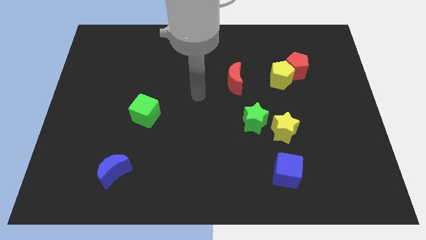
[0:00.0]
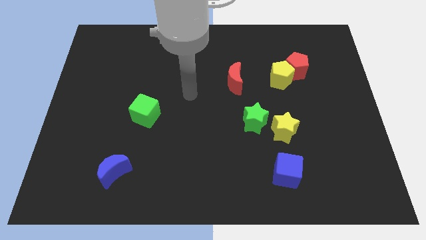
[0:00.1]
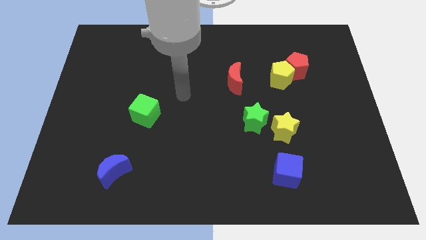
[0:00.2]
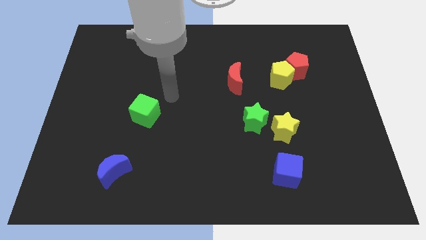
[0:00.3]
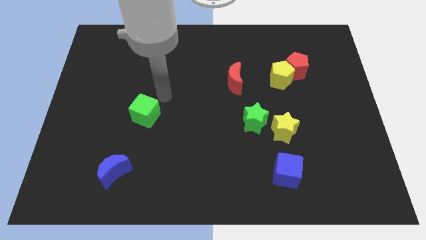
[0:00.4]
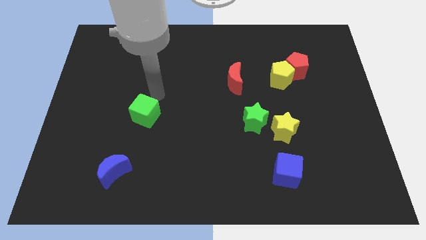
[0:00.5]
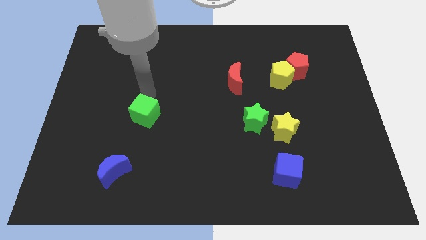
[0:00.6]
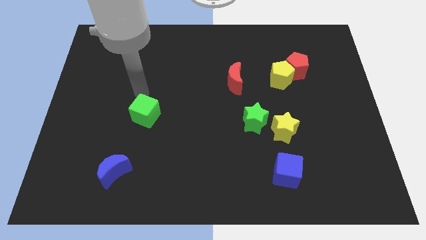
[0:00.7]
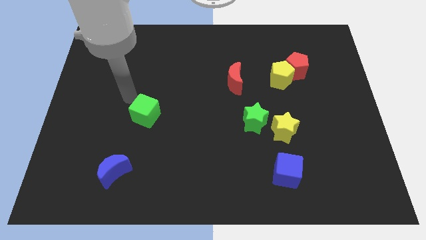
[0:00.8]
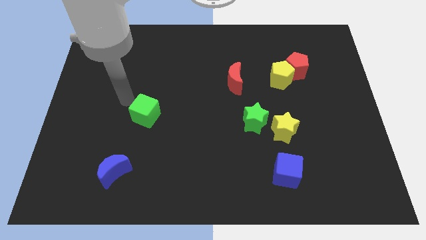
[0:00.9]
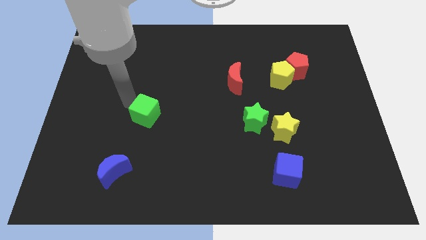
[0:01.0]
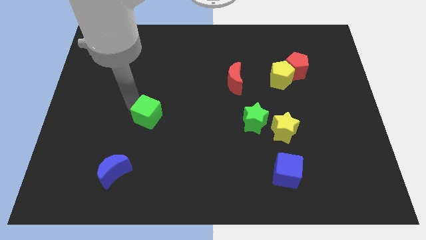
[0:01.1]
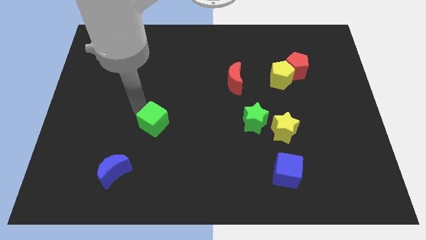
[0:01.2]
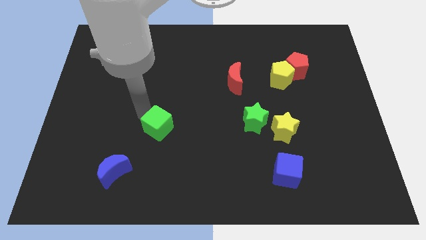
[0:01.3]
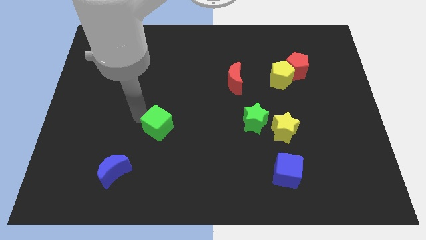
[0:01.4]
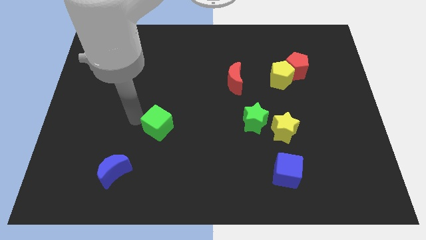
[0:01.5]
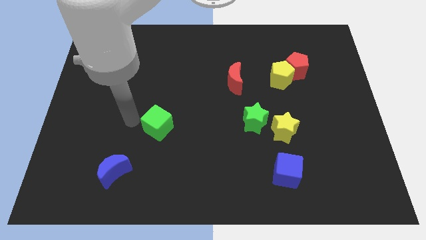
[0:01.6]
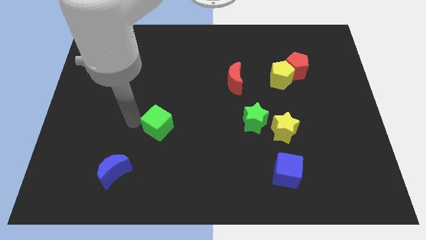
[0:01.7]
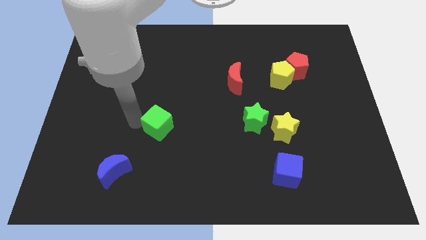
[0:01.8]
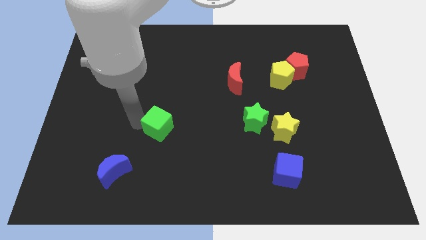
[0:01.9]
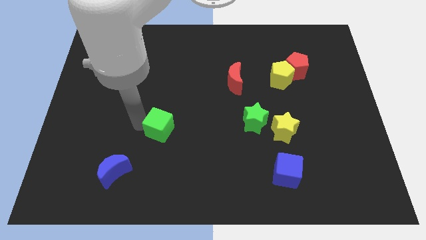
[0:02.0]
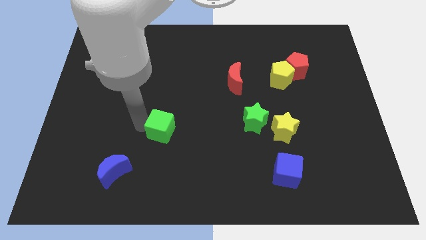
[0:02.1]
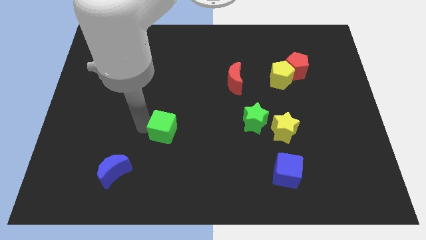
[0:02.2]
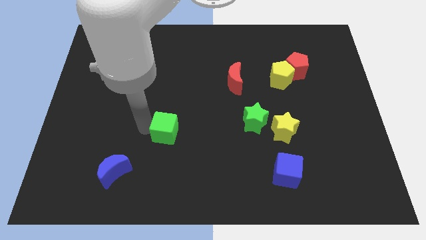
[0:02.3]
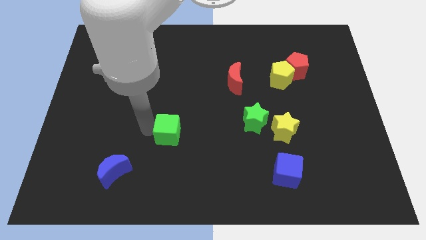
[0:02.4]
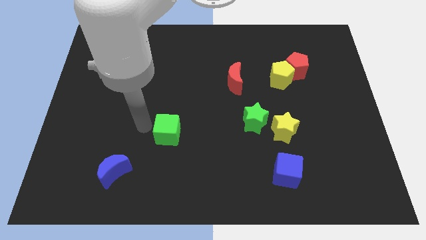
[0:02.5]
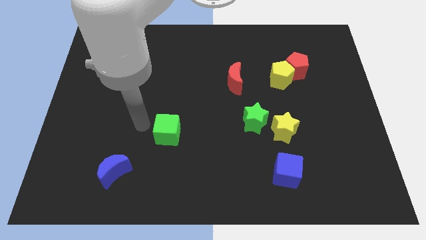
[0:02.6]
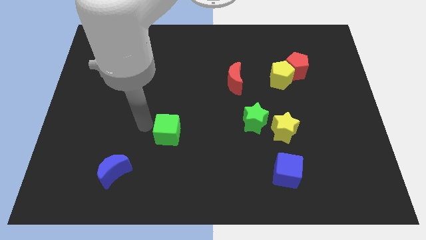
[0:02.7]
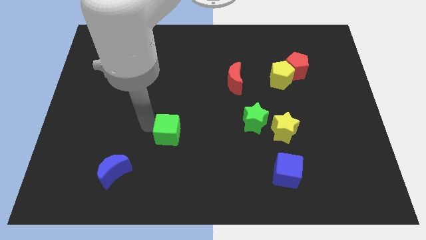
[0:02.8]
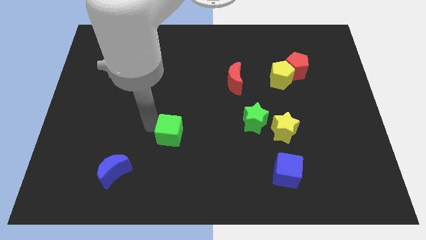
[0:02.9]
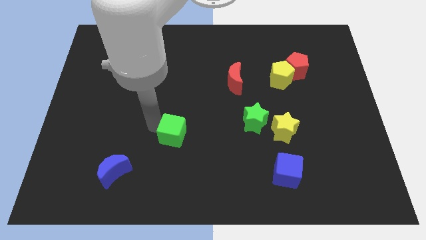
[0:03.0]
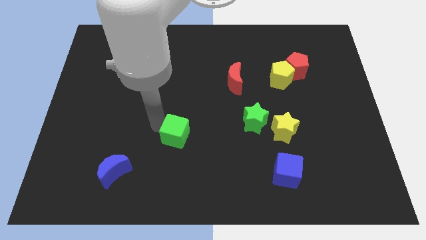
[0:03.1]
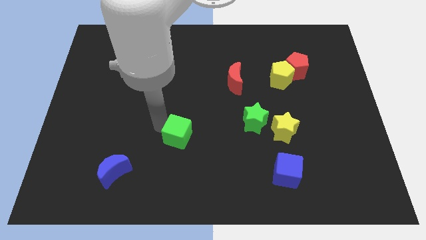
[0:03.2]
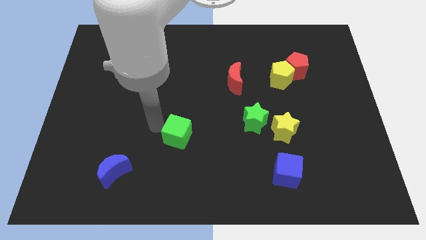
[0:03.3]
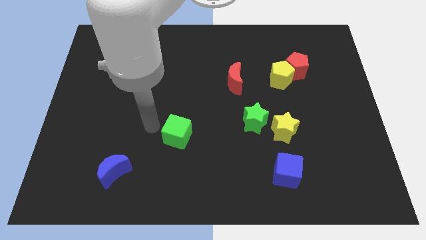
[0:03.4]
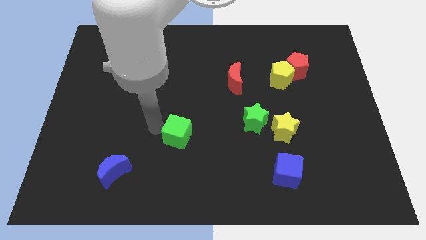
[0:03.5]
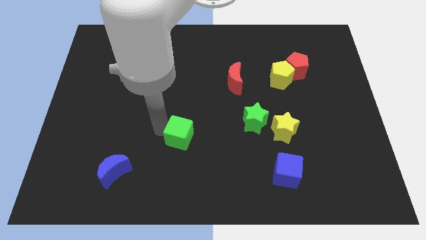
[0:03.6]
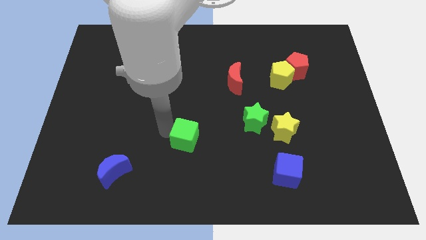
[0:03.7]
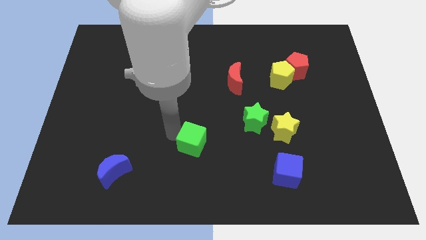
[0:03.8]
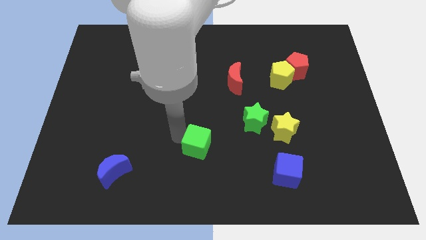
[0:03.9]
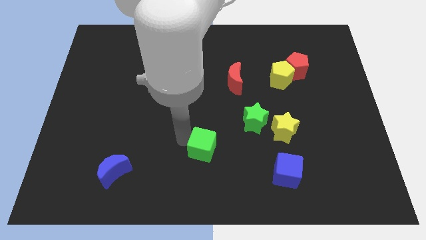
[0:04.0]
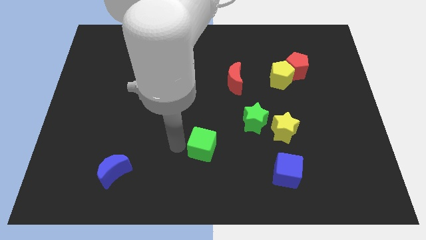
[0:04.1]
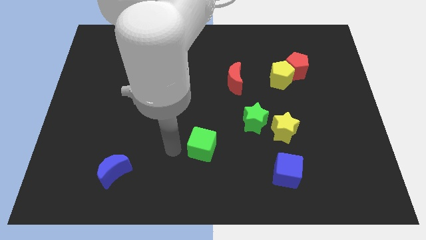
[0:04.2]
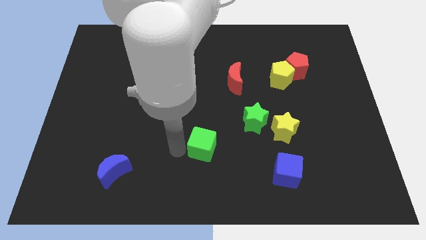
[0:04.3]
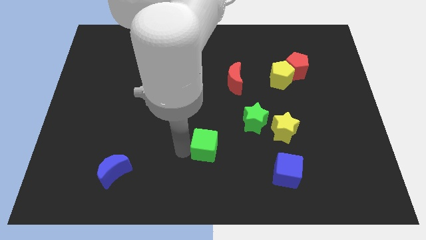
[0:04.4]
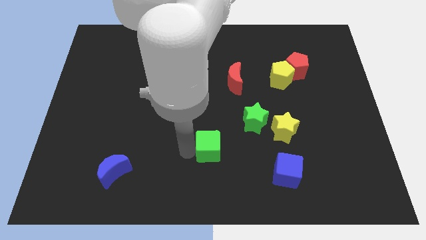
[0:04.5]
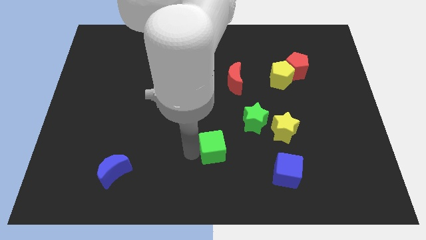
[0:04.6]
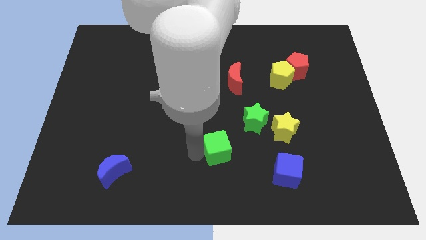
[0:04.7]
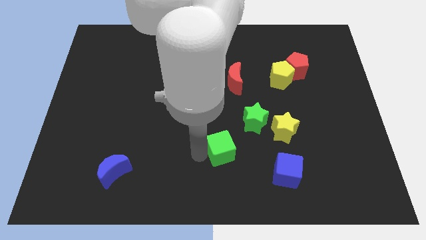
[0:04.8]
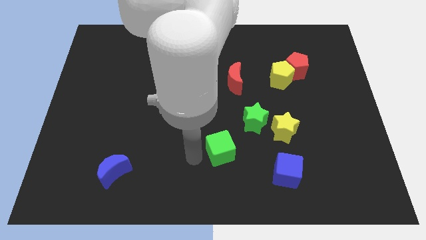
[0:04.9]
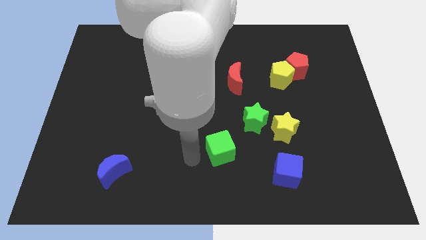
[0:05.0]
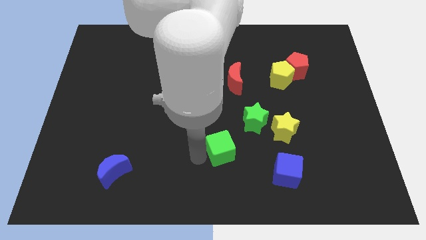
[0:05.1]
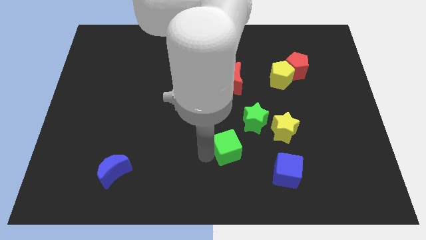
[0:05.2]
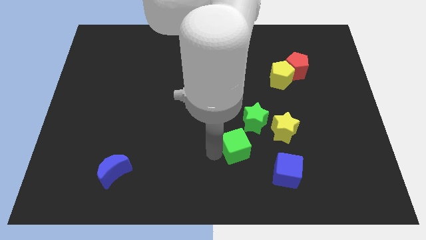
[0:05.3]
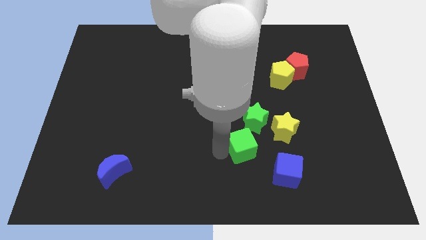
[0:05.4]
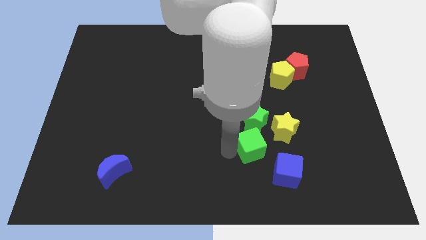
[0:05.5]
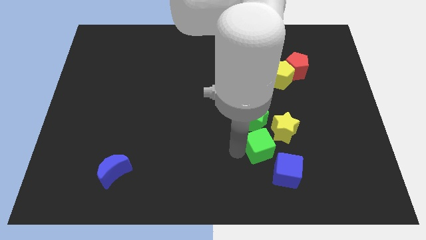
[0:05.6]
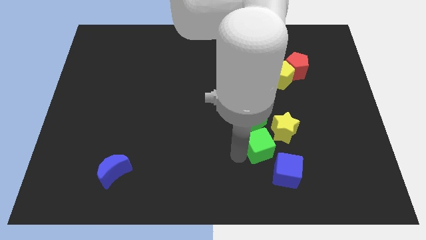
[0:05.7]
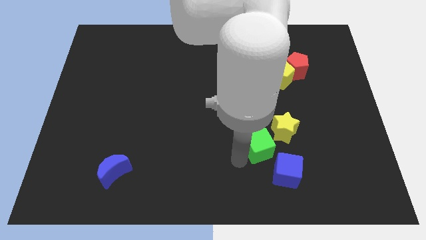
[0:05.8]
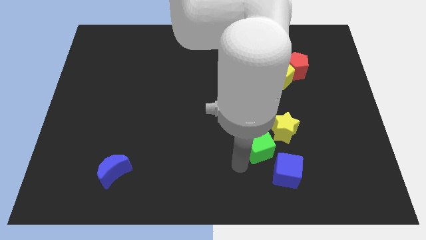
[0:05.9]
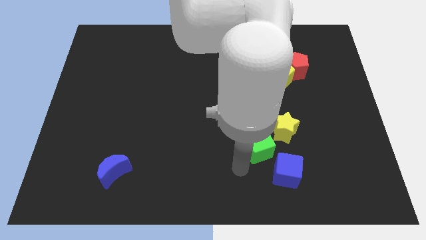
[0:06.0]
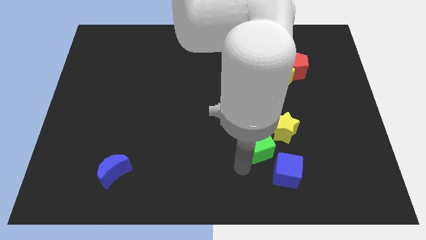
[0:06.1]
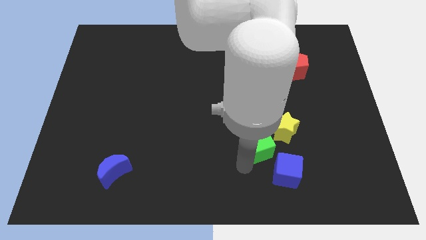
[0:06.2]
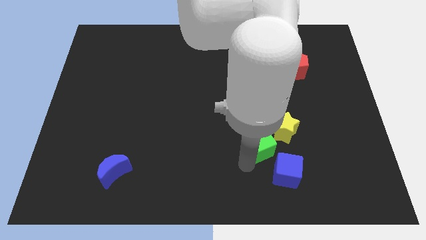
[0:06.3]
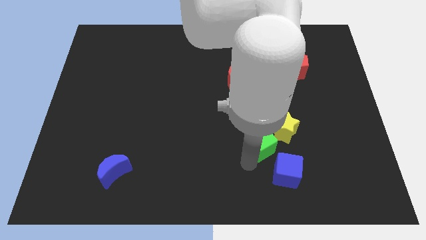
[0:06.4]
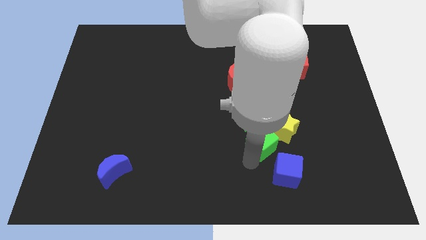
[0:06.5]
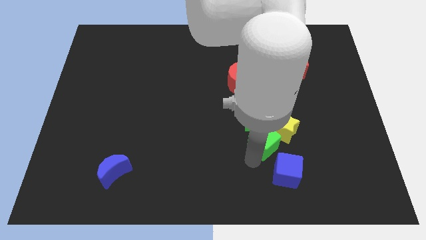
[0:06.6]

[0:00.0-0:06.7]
put the green cube close to the yellow star

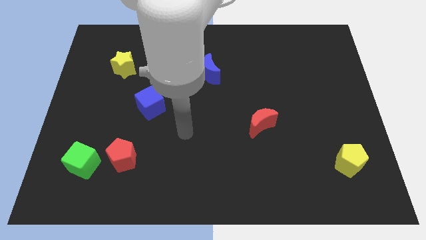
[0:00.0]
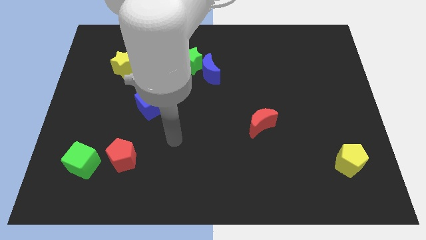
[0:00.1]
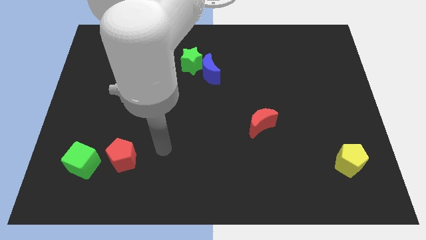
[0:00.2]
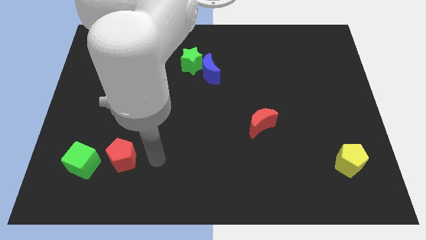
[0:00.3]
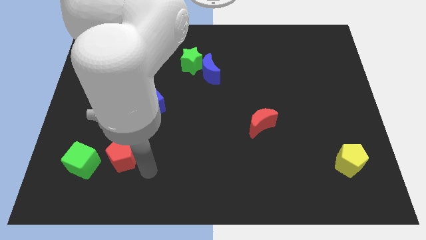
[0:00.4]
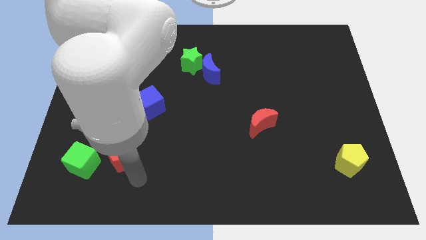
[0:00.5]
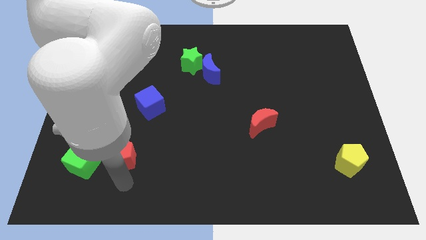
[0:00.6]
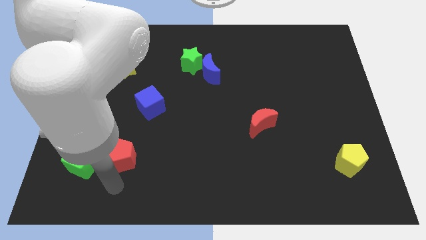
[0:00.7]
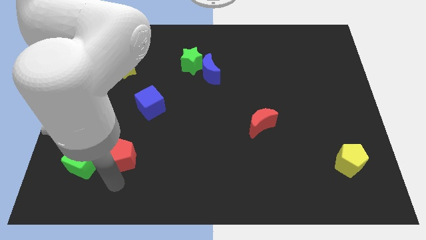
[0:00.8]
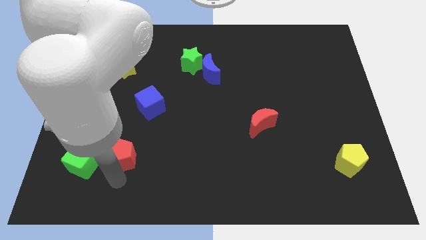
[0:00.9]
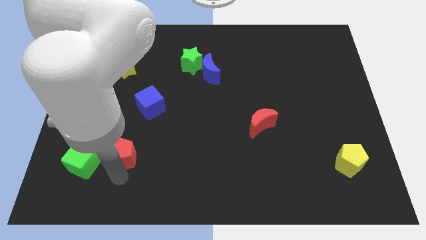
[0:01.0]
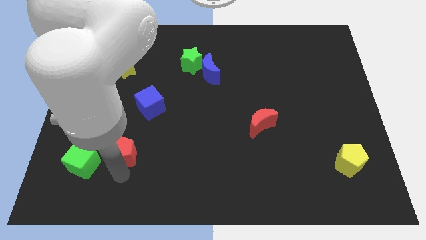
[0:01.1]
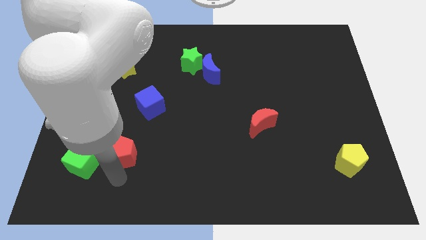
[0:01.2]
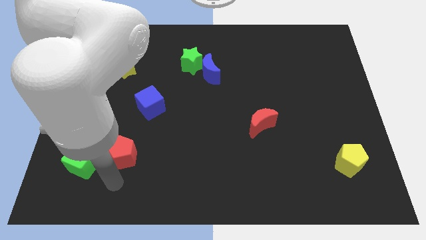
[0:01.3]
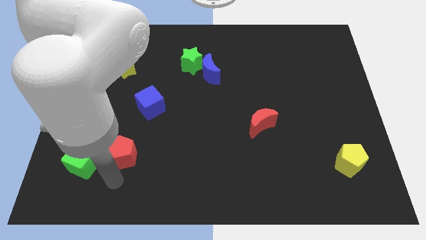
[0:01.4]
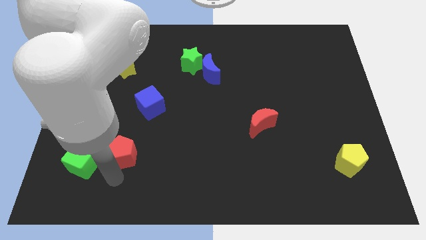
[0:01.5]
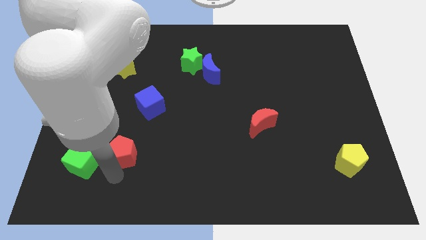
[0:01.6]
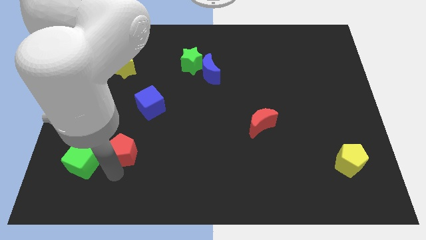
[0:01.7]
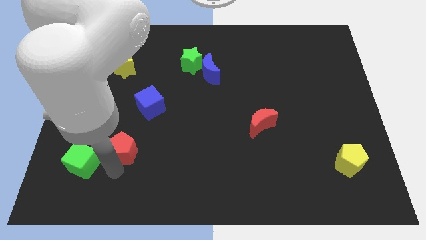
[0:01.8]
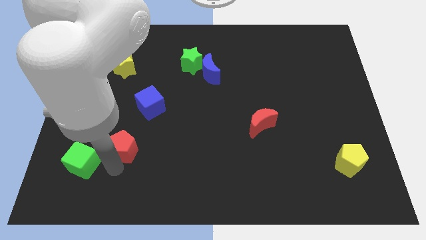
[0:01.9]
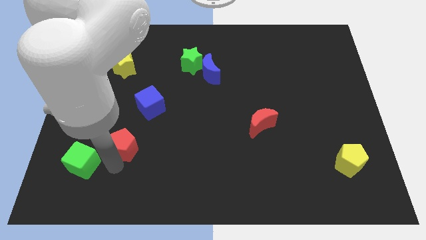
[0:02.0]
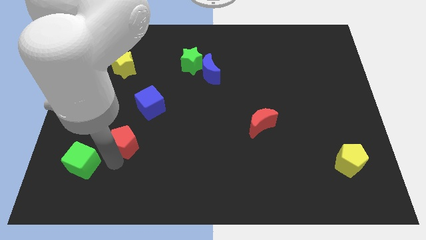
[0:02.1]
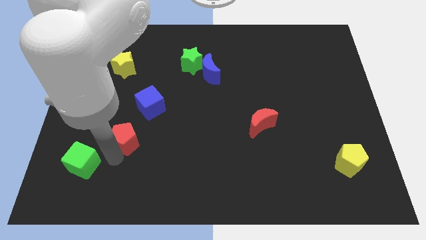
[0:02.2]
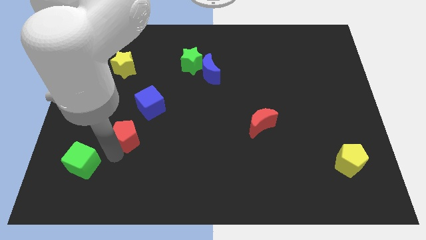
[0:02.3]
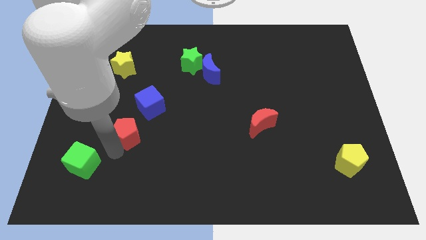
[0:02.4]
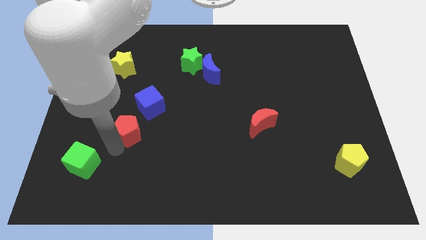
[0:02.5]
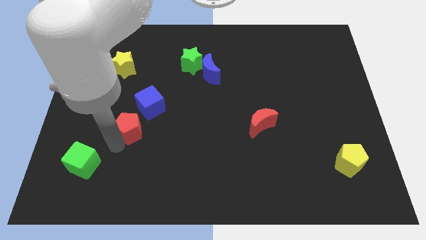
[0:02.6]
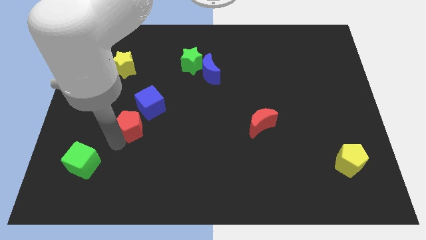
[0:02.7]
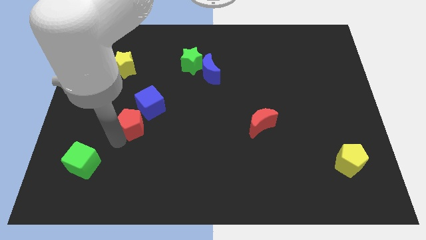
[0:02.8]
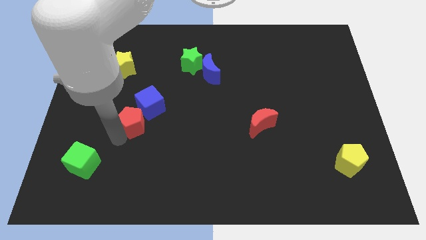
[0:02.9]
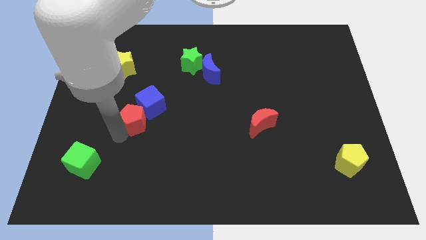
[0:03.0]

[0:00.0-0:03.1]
slide the red pentagon towards the blue cube
